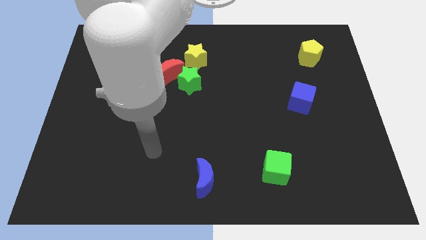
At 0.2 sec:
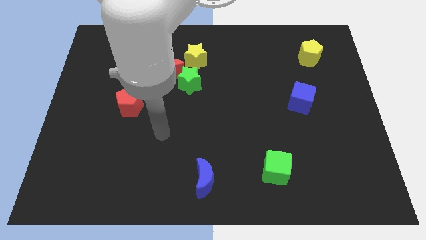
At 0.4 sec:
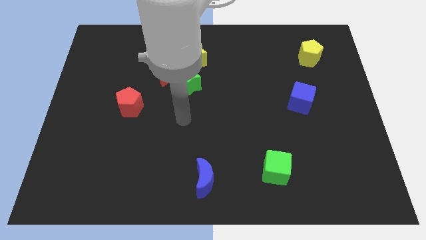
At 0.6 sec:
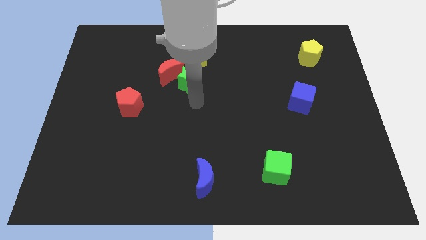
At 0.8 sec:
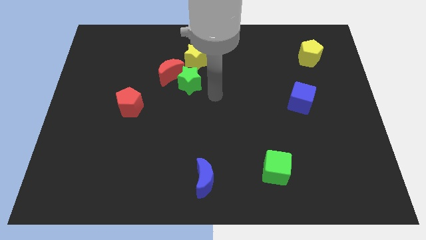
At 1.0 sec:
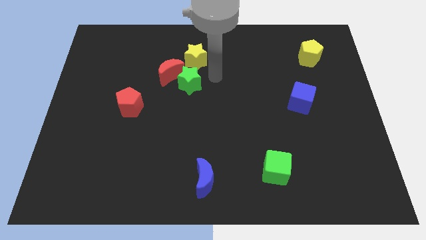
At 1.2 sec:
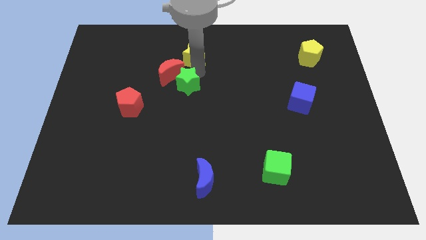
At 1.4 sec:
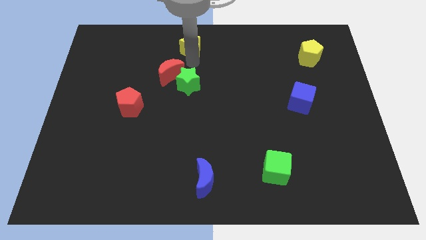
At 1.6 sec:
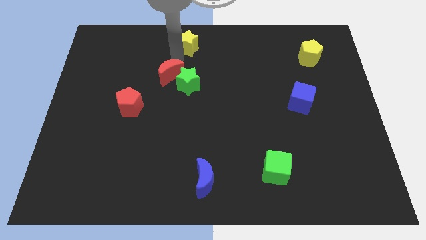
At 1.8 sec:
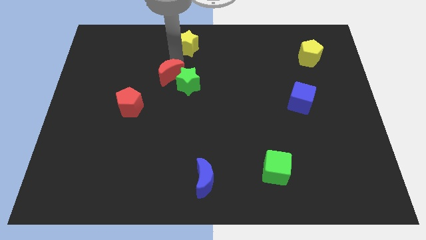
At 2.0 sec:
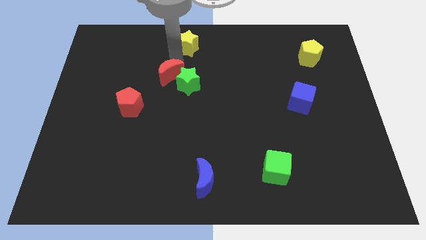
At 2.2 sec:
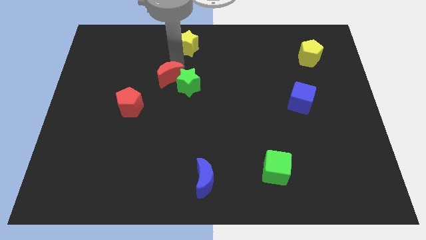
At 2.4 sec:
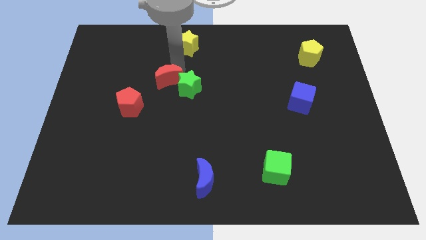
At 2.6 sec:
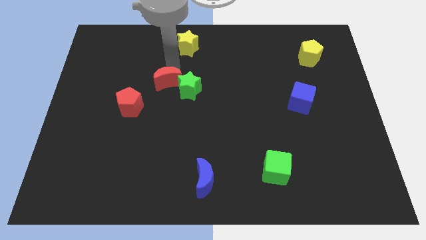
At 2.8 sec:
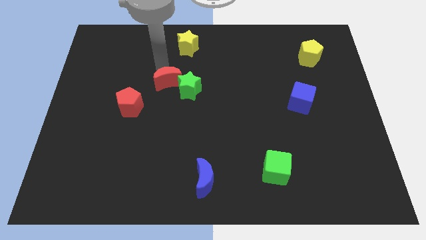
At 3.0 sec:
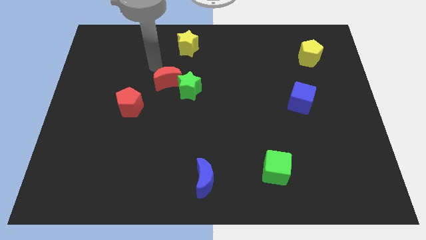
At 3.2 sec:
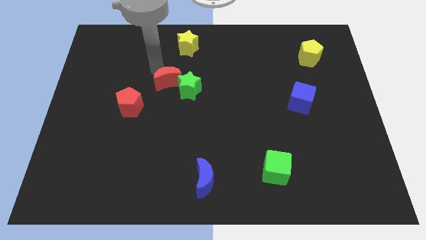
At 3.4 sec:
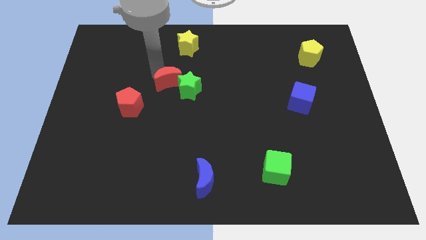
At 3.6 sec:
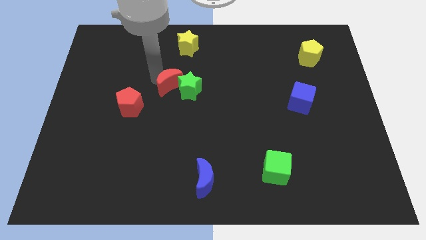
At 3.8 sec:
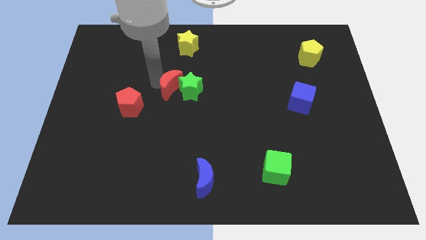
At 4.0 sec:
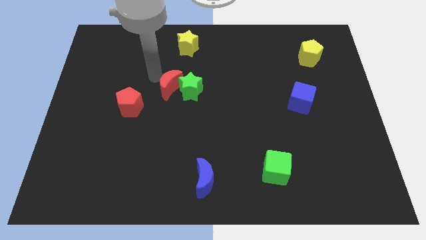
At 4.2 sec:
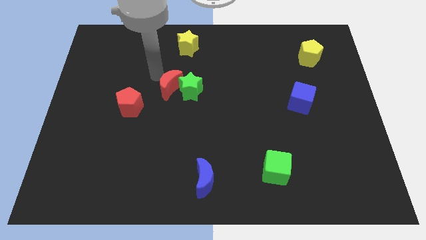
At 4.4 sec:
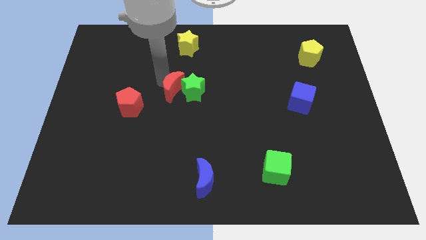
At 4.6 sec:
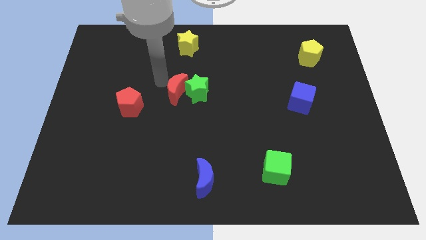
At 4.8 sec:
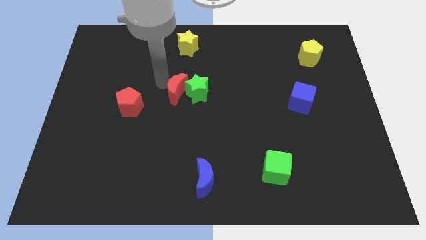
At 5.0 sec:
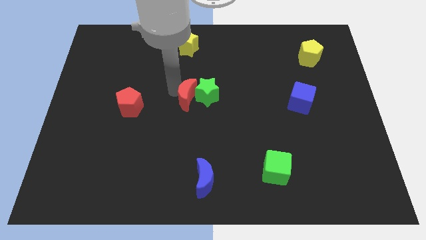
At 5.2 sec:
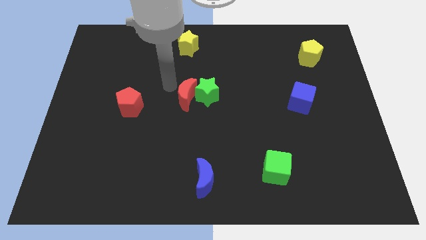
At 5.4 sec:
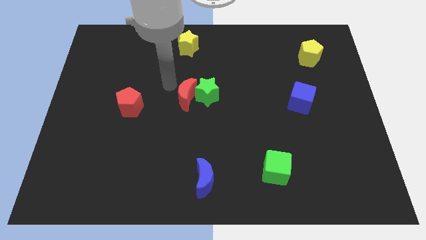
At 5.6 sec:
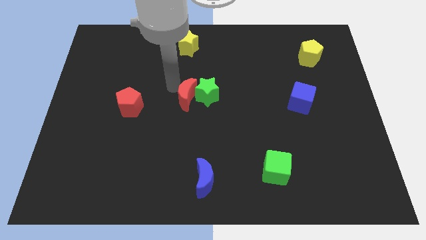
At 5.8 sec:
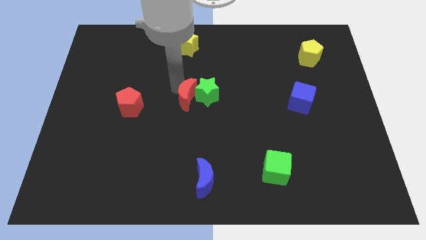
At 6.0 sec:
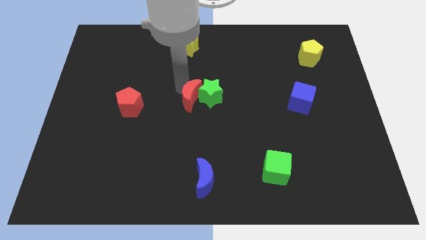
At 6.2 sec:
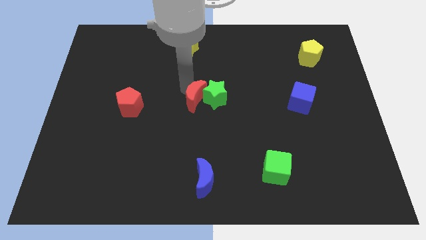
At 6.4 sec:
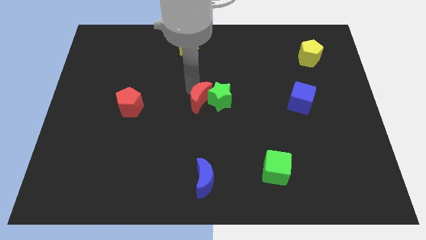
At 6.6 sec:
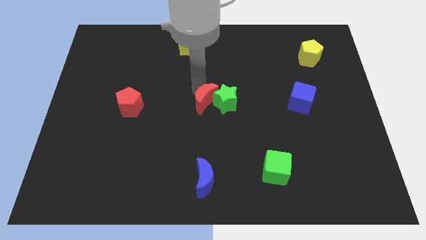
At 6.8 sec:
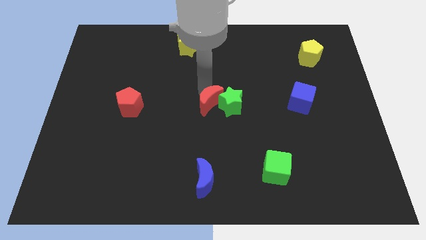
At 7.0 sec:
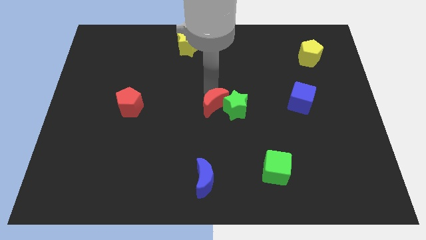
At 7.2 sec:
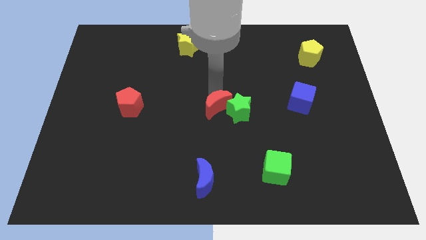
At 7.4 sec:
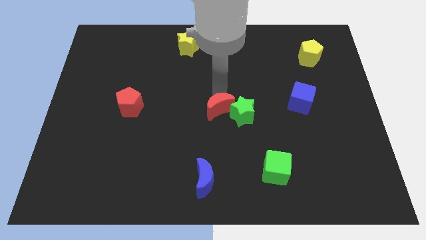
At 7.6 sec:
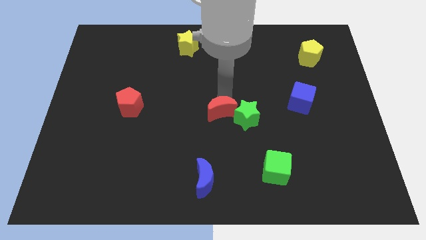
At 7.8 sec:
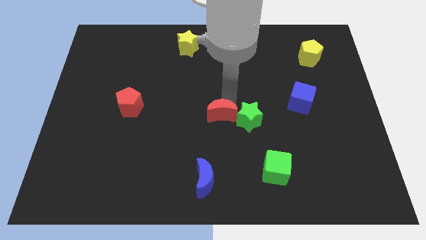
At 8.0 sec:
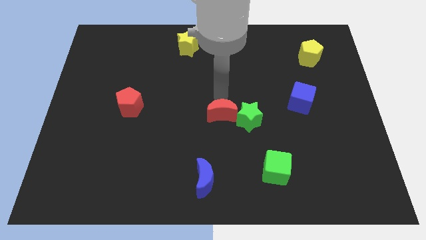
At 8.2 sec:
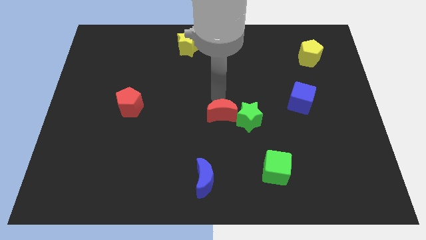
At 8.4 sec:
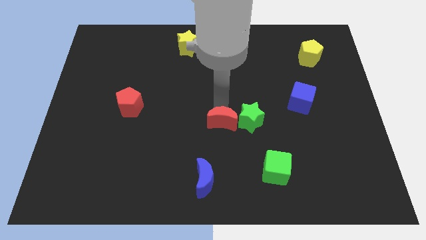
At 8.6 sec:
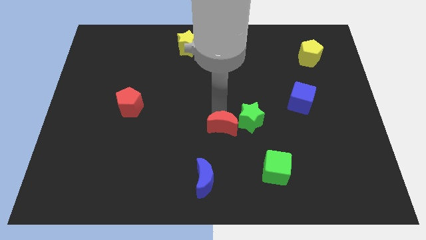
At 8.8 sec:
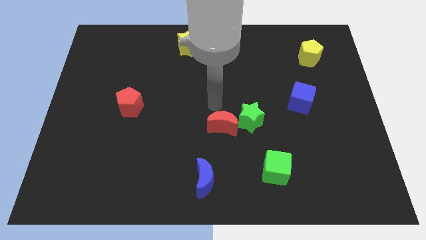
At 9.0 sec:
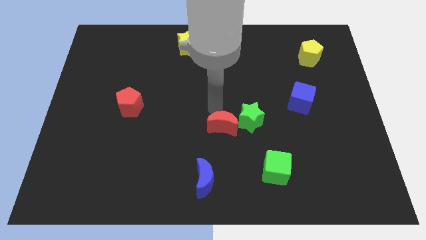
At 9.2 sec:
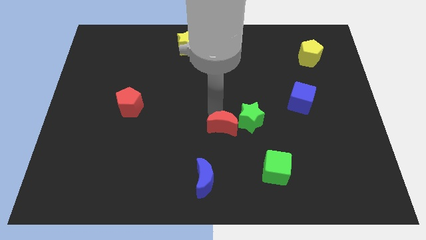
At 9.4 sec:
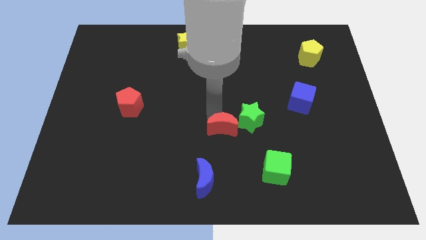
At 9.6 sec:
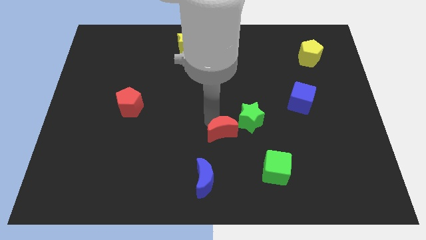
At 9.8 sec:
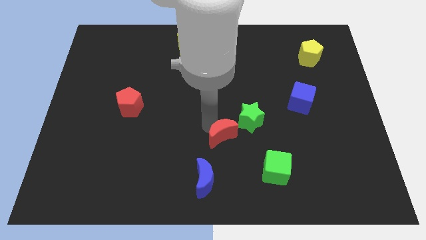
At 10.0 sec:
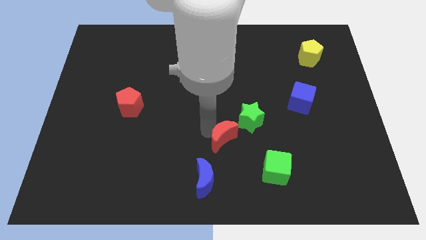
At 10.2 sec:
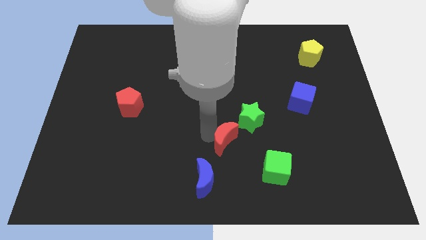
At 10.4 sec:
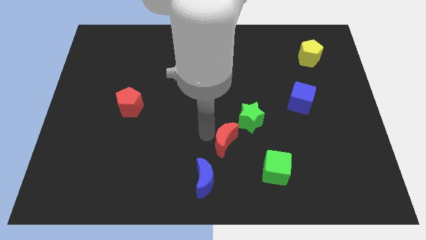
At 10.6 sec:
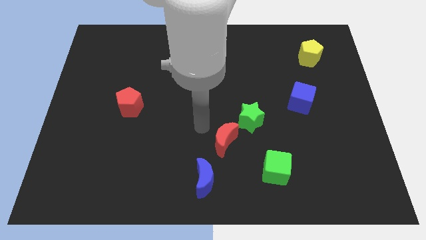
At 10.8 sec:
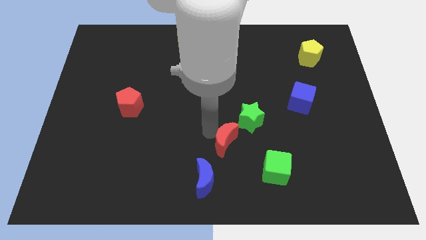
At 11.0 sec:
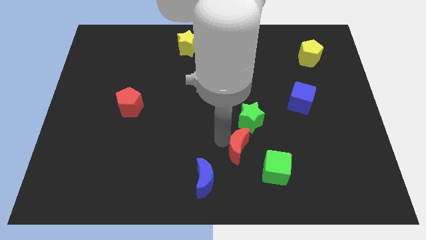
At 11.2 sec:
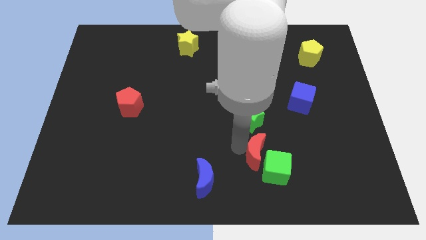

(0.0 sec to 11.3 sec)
move the red moon close to the green cube

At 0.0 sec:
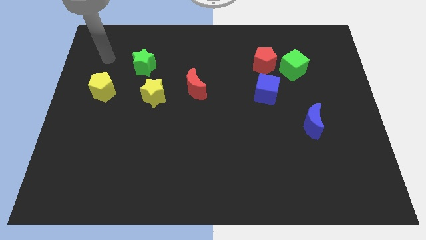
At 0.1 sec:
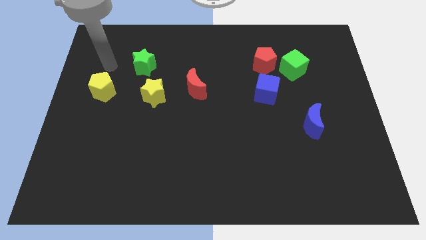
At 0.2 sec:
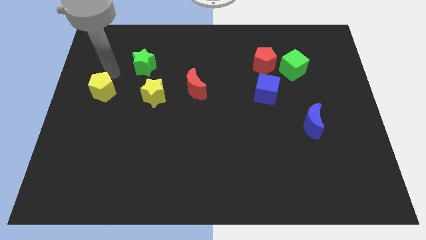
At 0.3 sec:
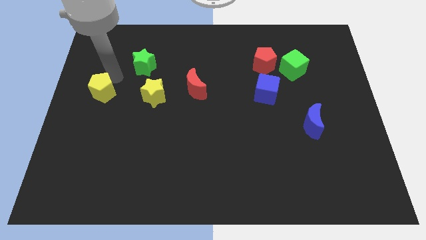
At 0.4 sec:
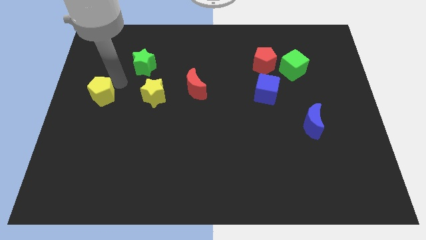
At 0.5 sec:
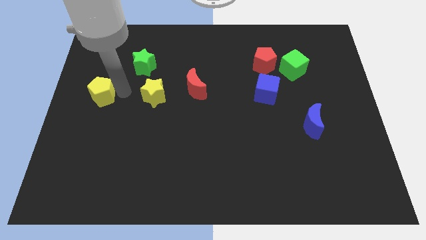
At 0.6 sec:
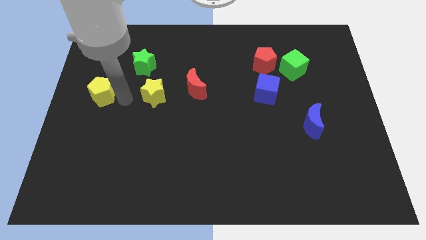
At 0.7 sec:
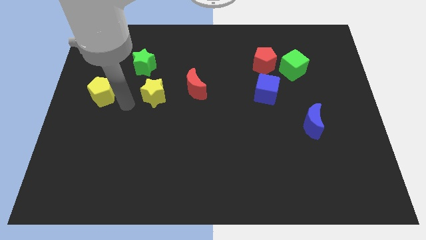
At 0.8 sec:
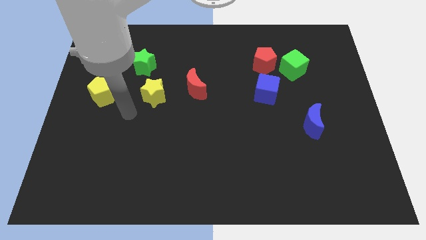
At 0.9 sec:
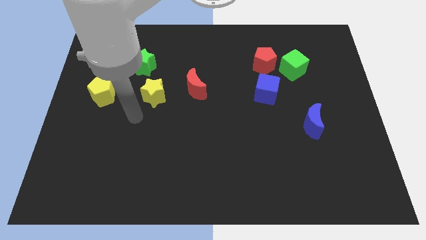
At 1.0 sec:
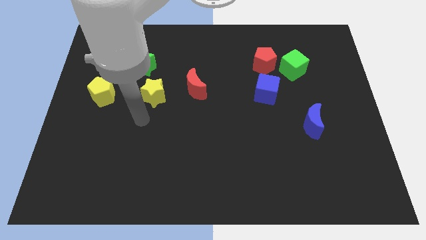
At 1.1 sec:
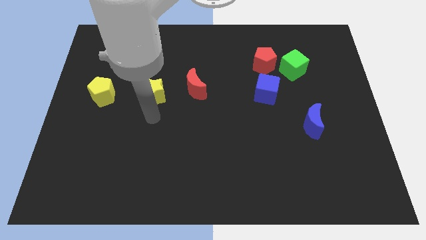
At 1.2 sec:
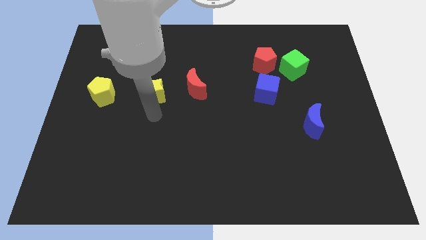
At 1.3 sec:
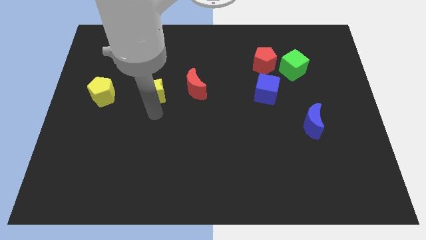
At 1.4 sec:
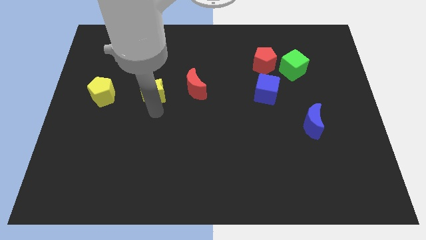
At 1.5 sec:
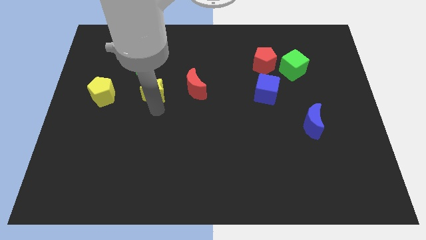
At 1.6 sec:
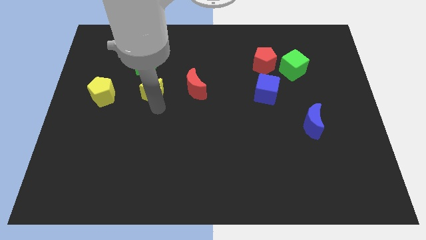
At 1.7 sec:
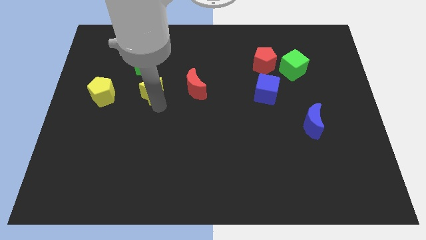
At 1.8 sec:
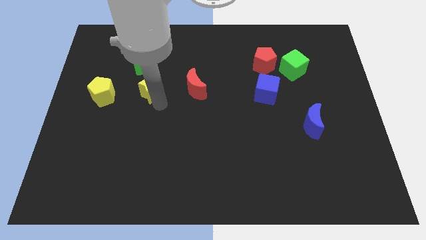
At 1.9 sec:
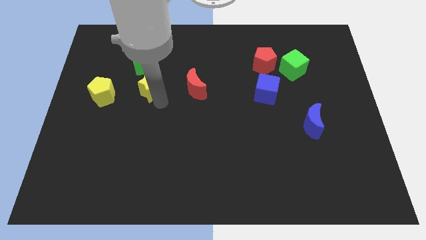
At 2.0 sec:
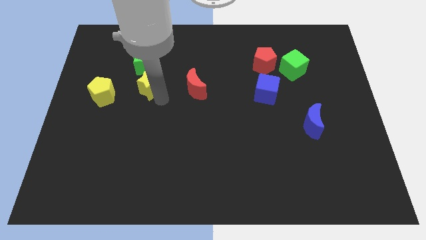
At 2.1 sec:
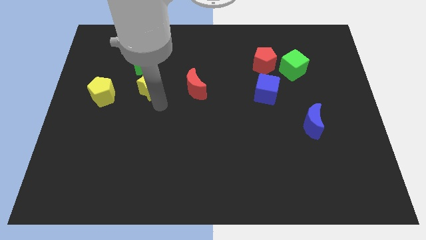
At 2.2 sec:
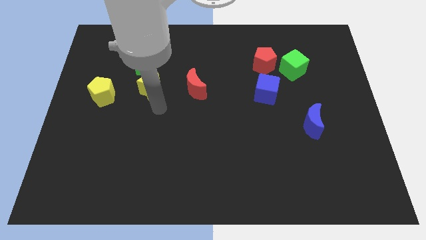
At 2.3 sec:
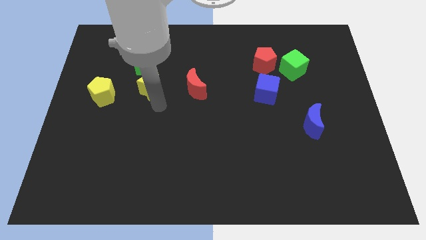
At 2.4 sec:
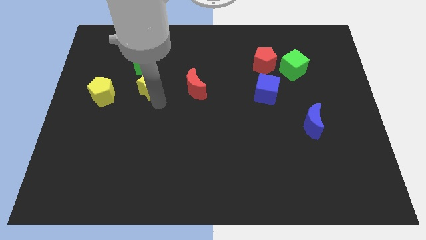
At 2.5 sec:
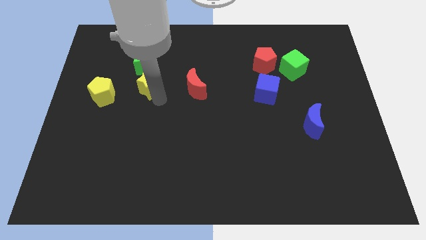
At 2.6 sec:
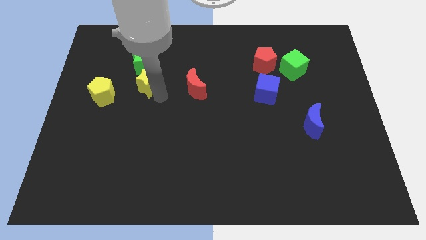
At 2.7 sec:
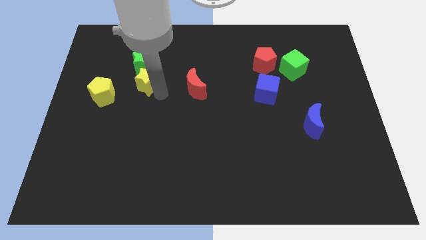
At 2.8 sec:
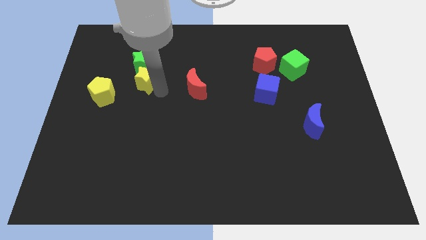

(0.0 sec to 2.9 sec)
put the yellow star close to the green star
